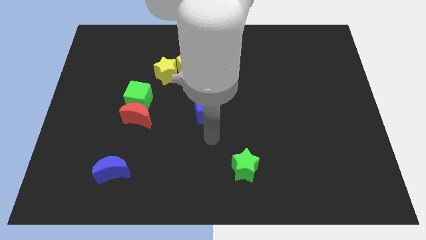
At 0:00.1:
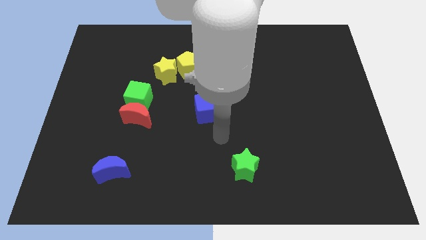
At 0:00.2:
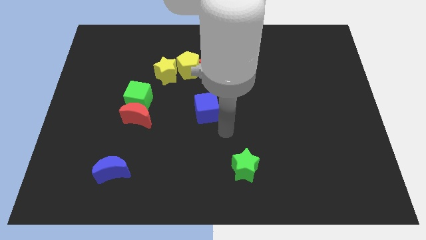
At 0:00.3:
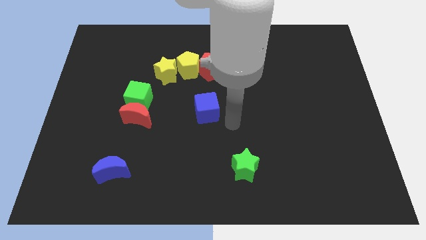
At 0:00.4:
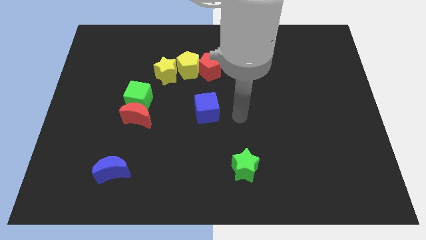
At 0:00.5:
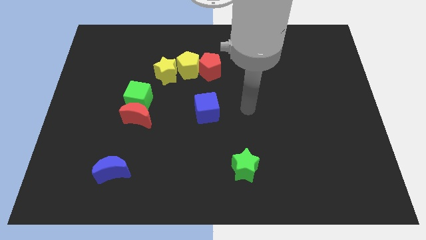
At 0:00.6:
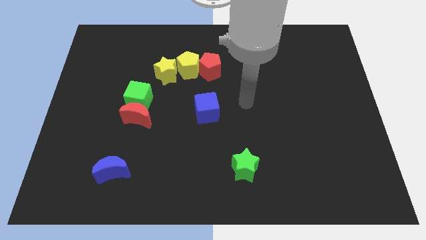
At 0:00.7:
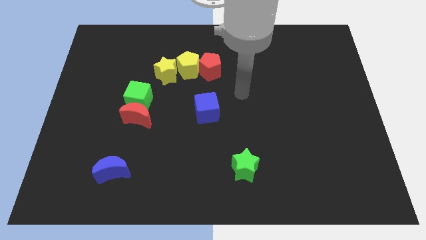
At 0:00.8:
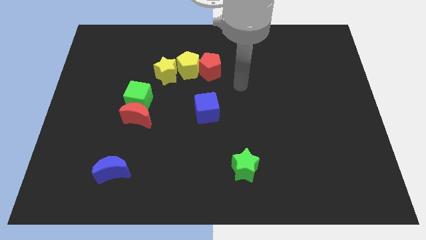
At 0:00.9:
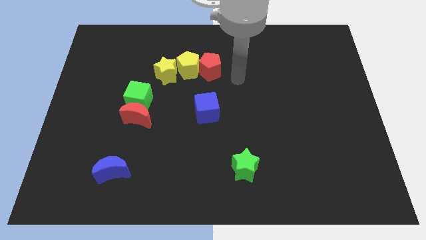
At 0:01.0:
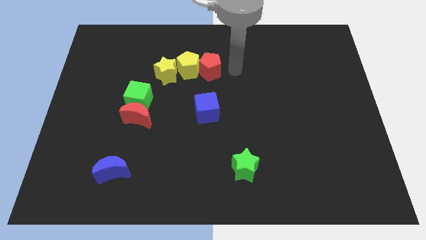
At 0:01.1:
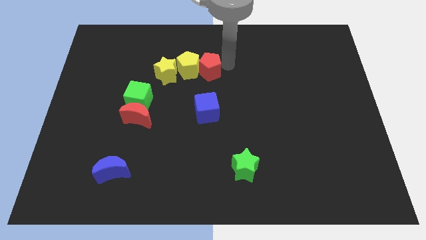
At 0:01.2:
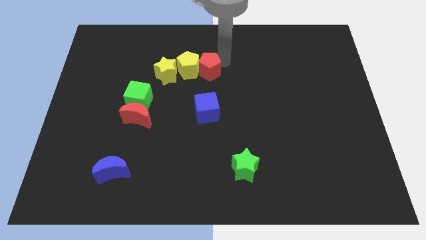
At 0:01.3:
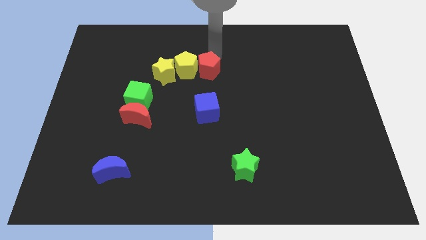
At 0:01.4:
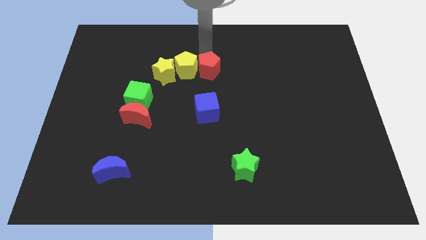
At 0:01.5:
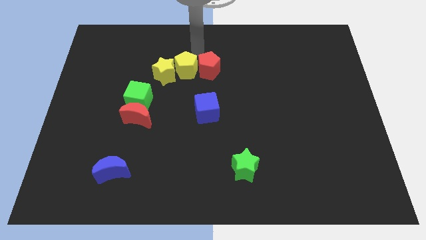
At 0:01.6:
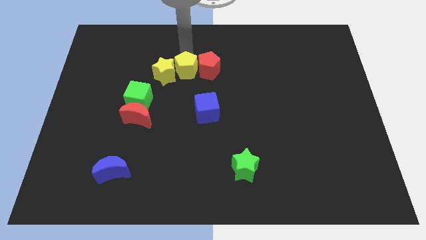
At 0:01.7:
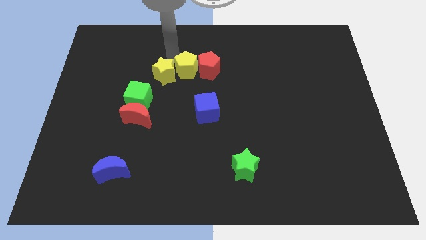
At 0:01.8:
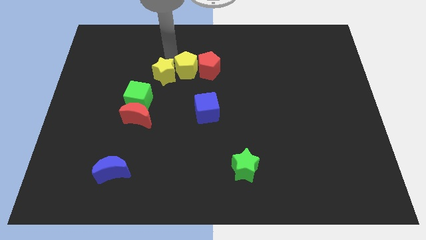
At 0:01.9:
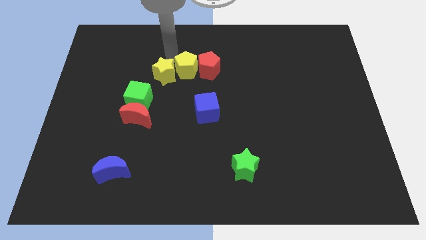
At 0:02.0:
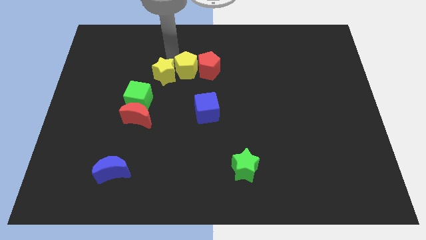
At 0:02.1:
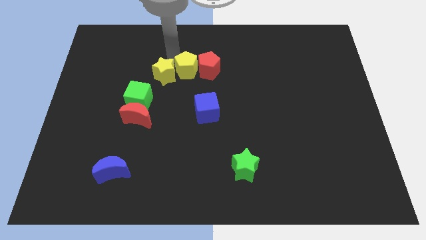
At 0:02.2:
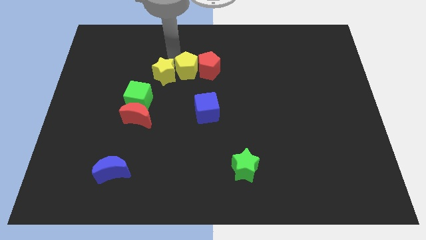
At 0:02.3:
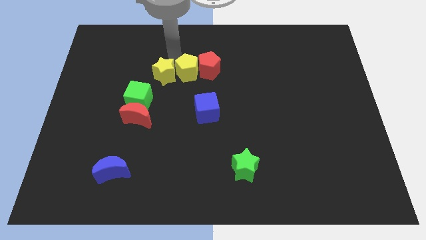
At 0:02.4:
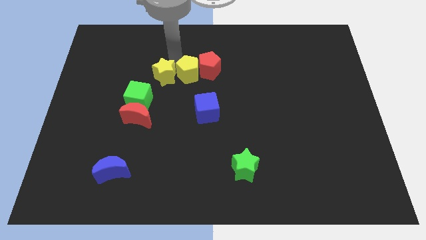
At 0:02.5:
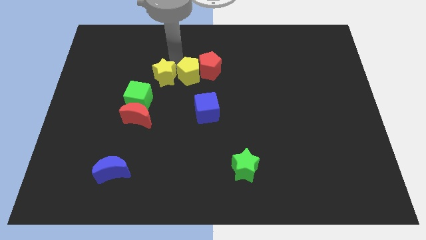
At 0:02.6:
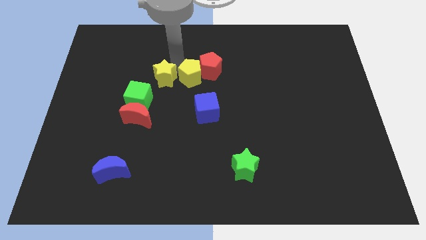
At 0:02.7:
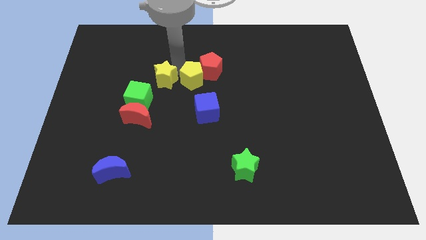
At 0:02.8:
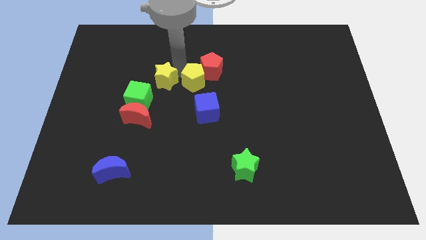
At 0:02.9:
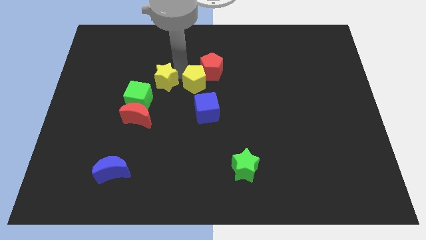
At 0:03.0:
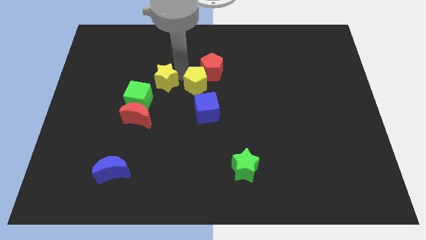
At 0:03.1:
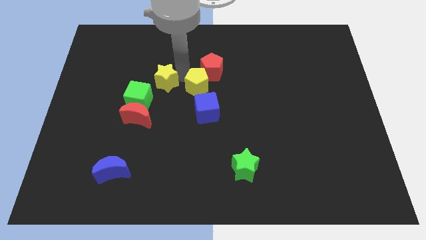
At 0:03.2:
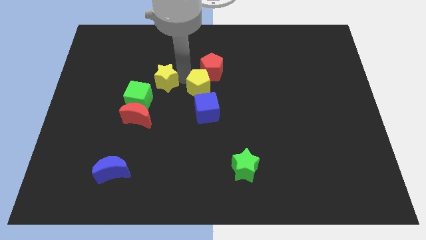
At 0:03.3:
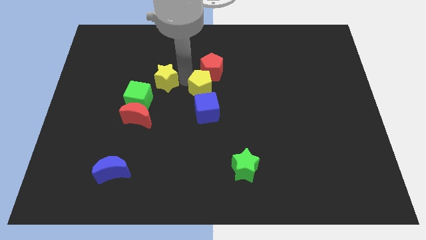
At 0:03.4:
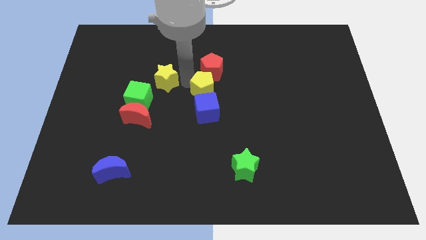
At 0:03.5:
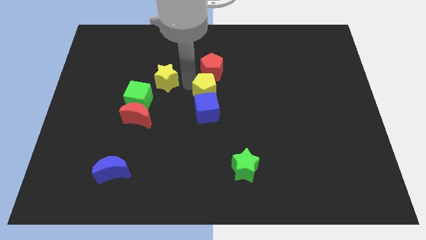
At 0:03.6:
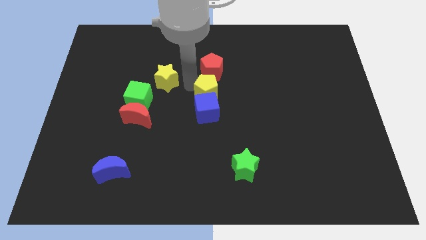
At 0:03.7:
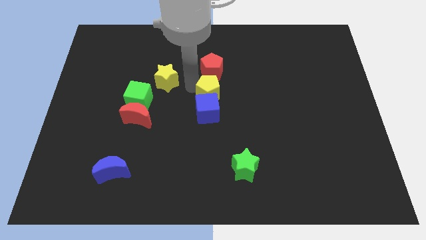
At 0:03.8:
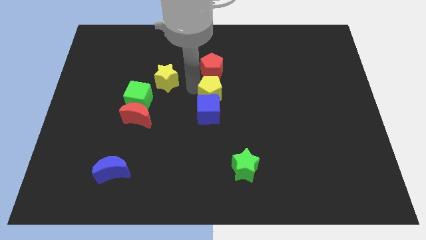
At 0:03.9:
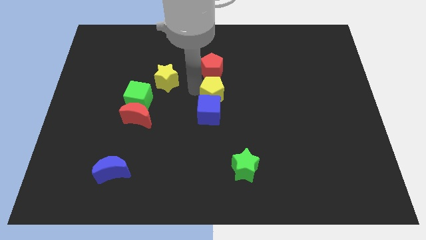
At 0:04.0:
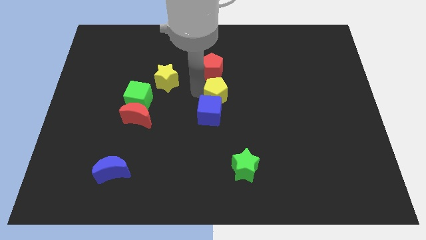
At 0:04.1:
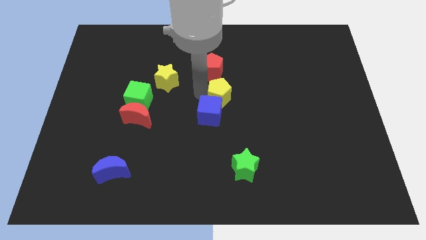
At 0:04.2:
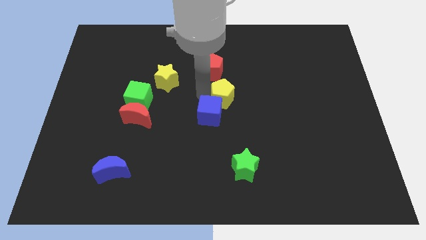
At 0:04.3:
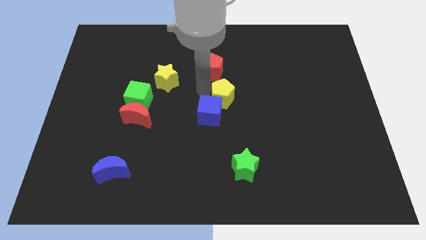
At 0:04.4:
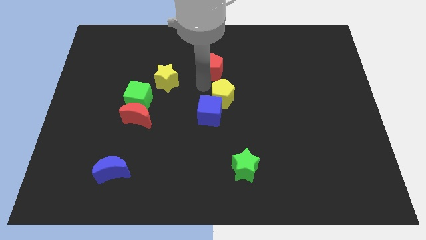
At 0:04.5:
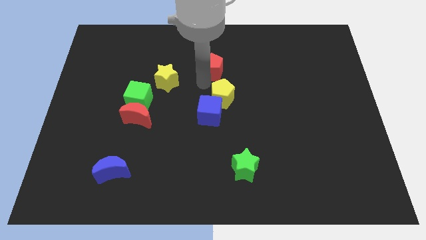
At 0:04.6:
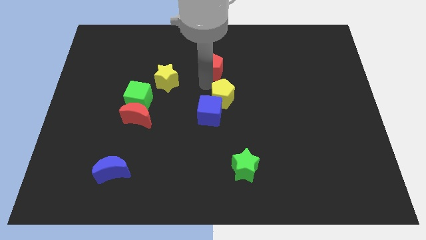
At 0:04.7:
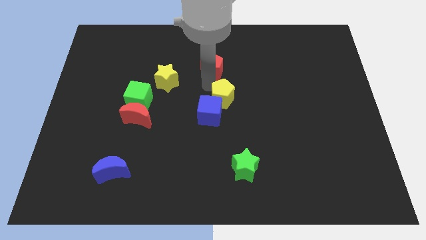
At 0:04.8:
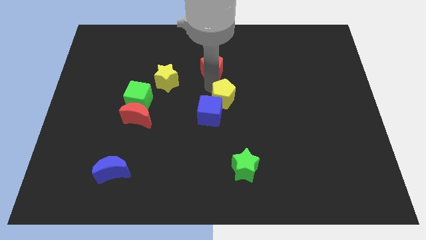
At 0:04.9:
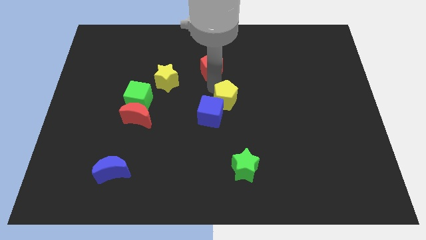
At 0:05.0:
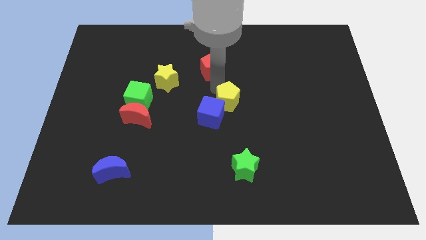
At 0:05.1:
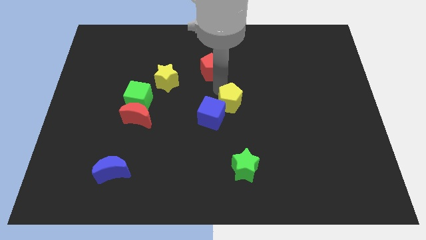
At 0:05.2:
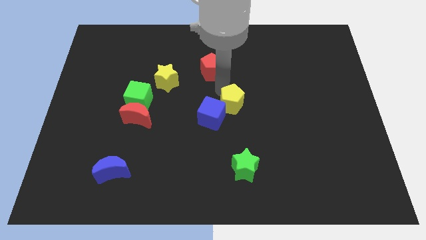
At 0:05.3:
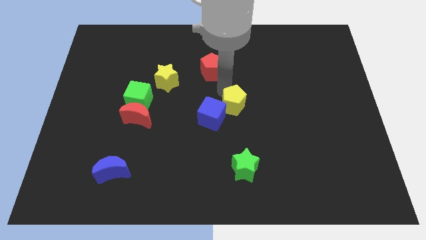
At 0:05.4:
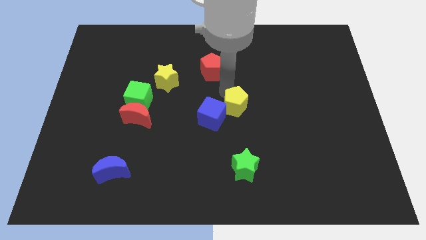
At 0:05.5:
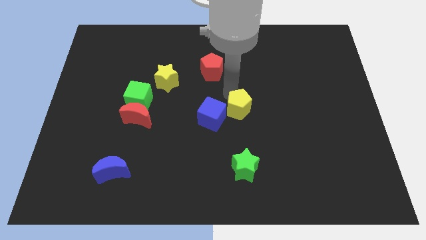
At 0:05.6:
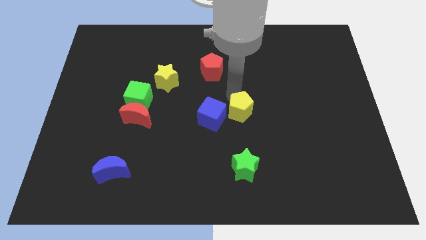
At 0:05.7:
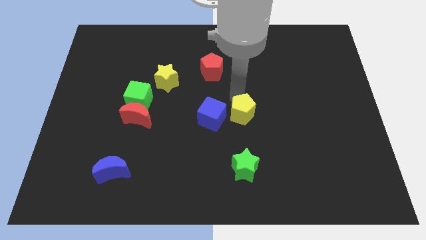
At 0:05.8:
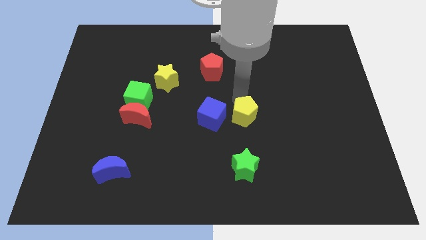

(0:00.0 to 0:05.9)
move the yellow pentagon downwards and then to the right

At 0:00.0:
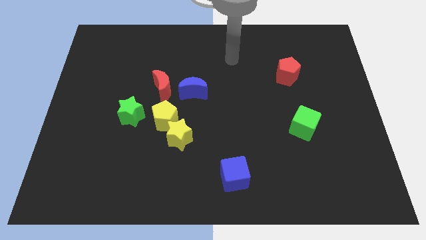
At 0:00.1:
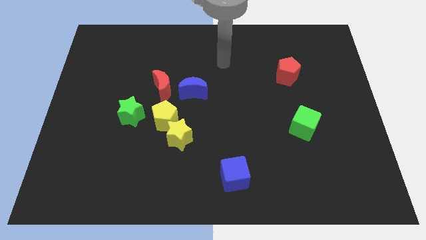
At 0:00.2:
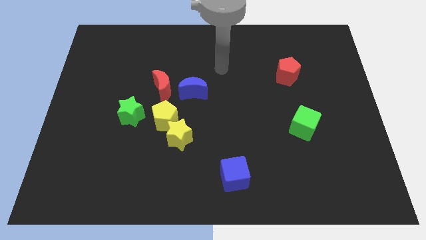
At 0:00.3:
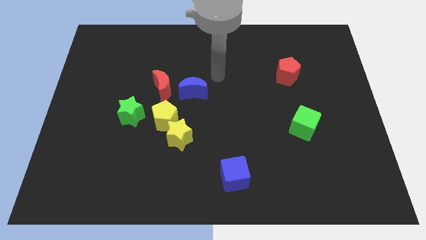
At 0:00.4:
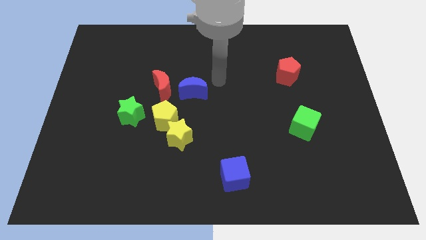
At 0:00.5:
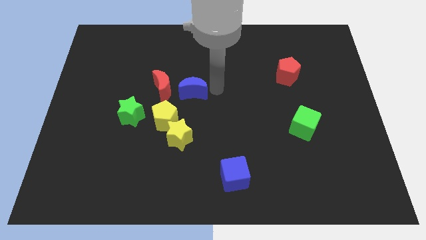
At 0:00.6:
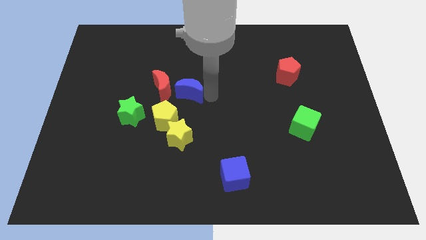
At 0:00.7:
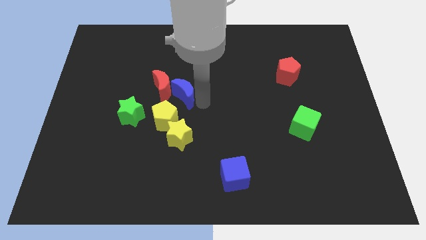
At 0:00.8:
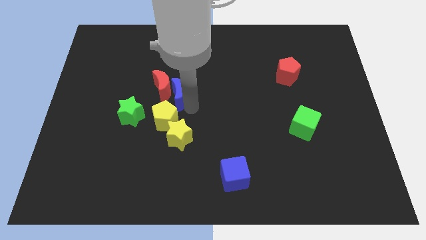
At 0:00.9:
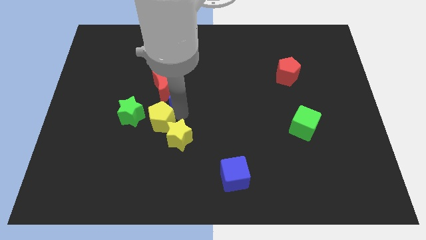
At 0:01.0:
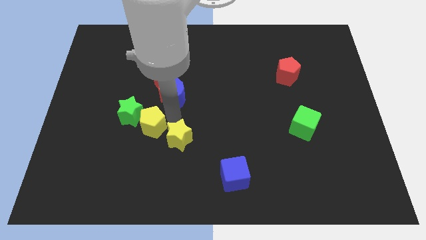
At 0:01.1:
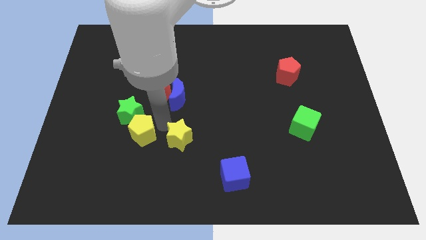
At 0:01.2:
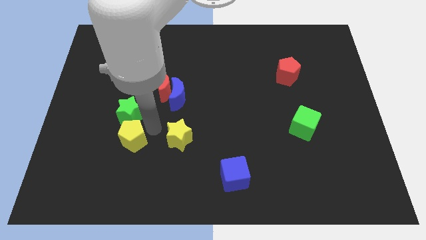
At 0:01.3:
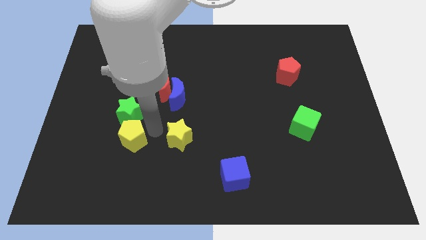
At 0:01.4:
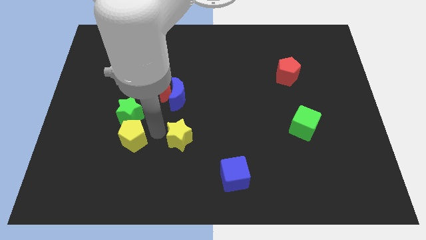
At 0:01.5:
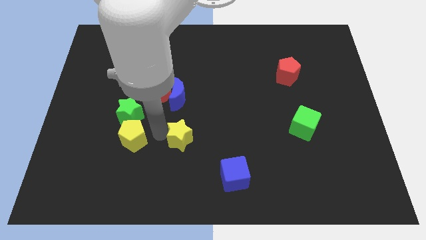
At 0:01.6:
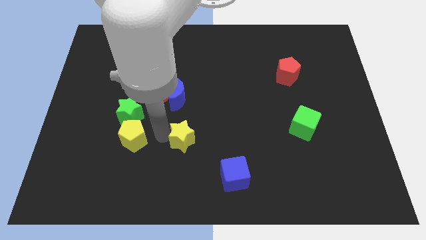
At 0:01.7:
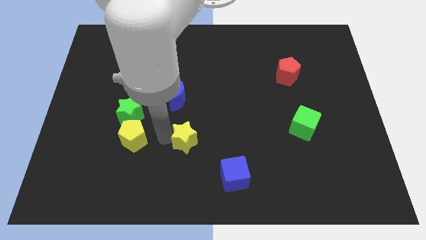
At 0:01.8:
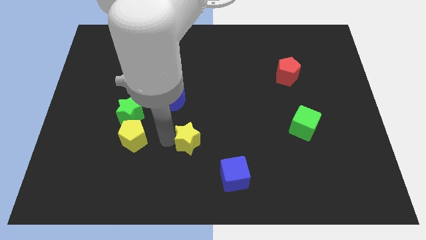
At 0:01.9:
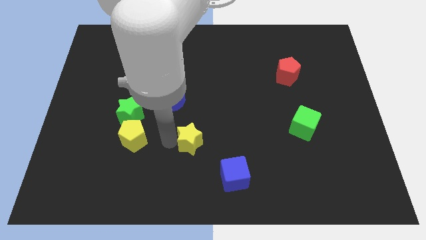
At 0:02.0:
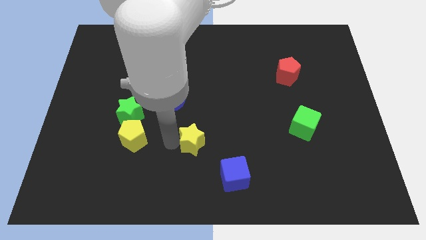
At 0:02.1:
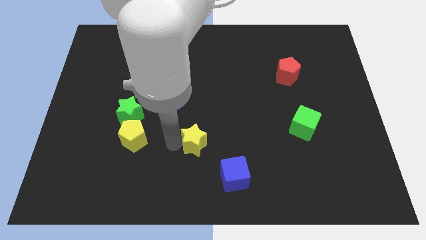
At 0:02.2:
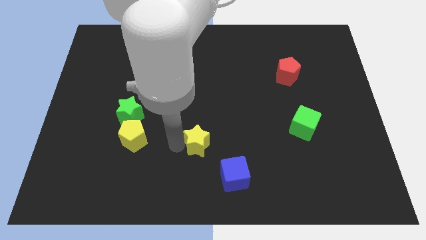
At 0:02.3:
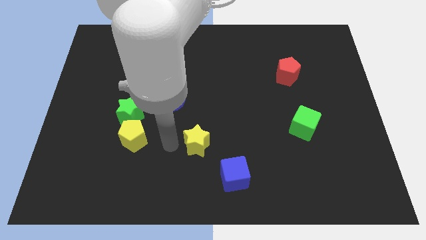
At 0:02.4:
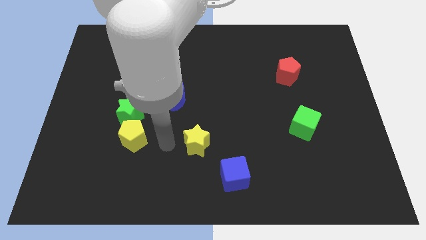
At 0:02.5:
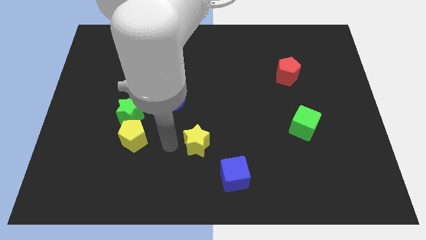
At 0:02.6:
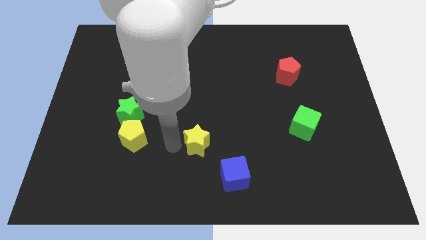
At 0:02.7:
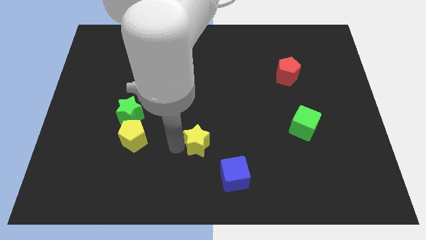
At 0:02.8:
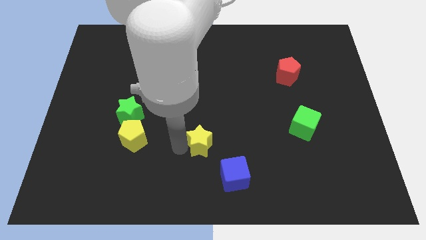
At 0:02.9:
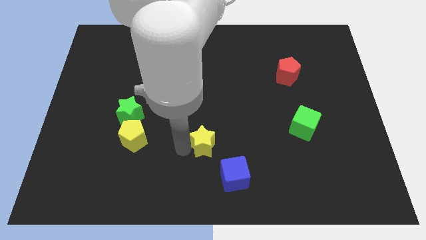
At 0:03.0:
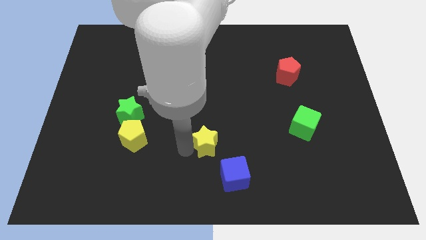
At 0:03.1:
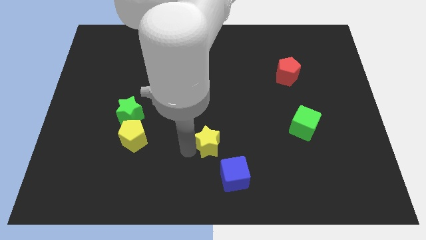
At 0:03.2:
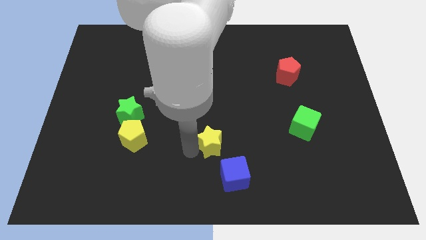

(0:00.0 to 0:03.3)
move the yellow star slightly to the right
